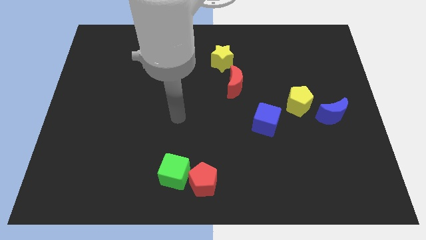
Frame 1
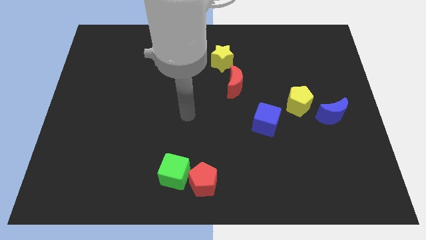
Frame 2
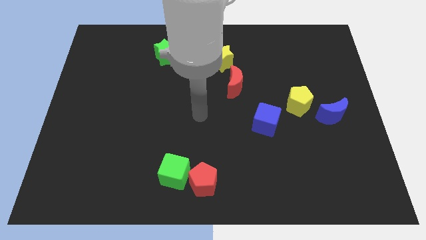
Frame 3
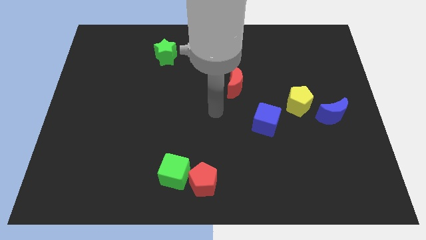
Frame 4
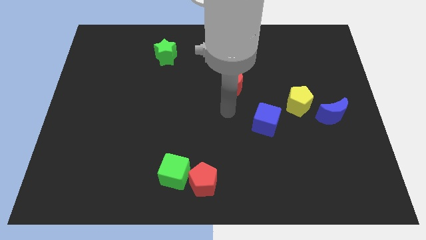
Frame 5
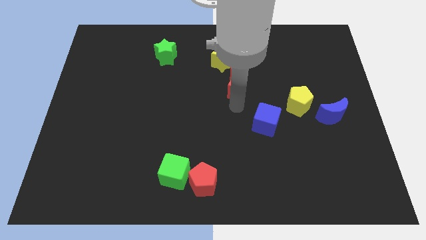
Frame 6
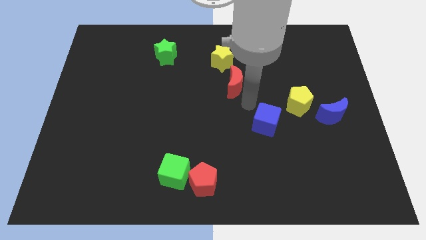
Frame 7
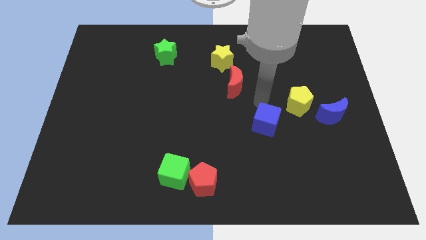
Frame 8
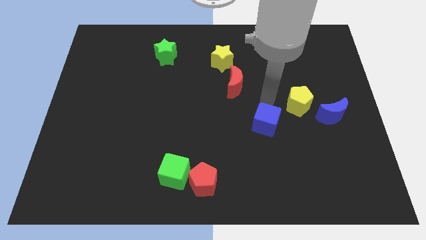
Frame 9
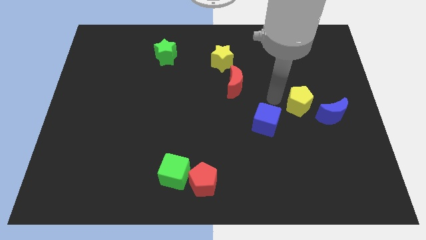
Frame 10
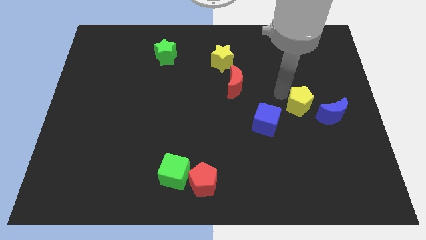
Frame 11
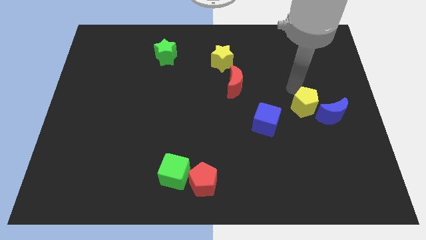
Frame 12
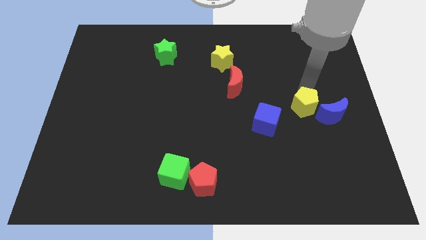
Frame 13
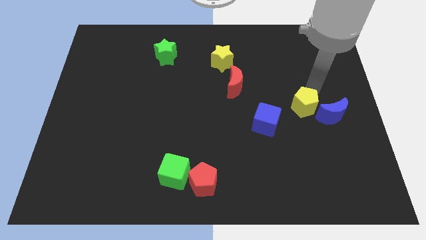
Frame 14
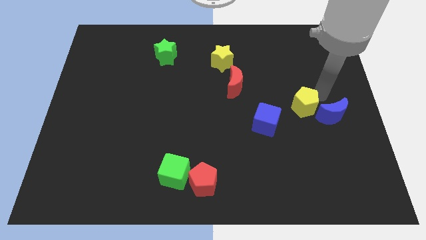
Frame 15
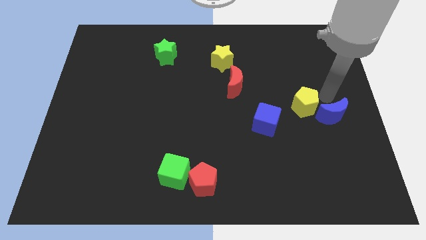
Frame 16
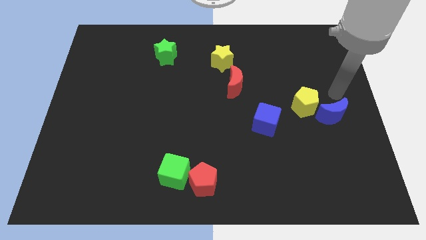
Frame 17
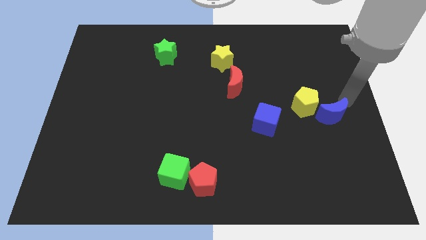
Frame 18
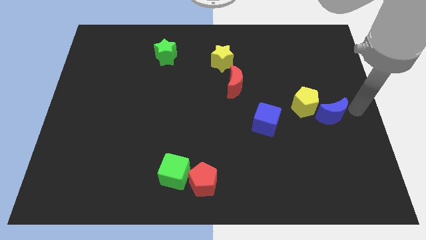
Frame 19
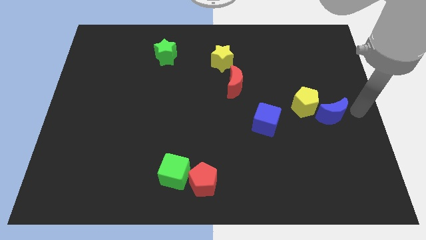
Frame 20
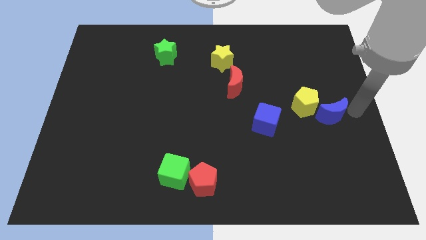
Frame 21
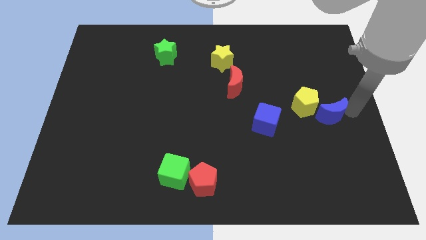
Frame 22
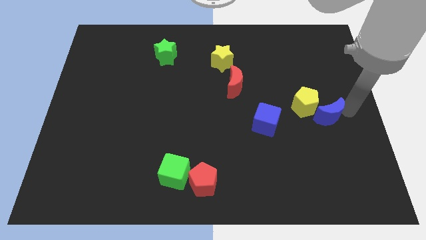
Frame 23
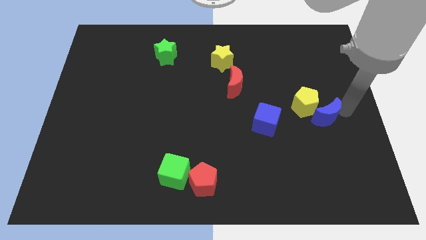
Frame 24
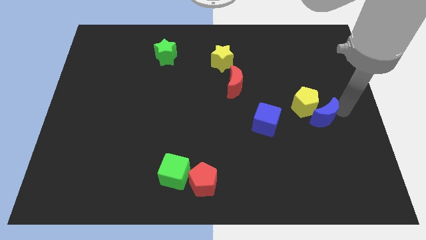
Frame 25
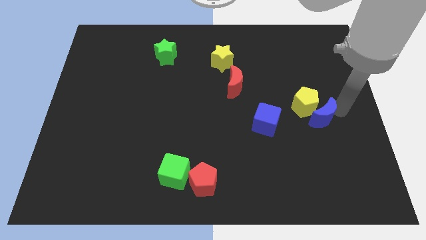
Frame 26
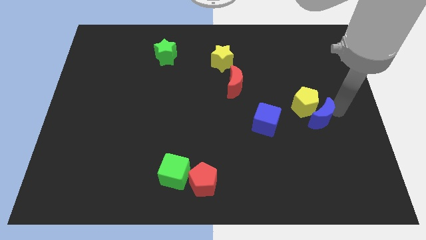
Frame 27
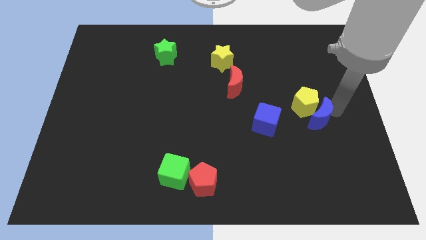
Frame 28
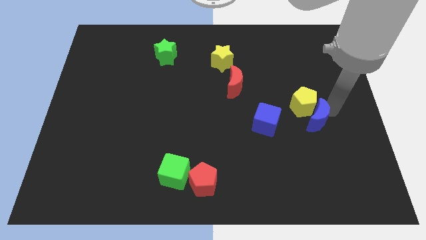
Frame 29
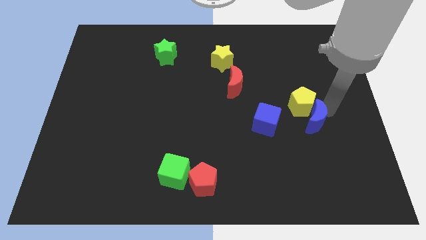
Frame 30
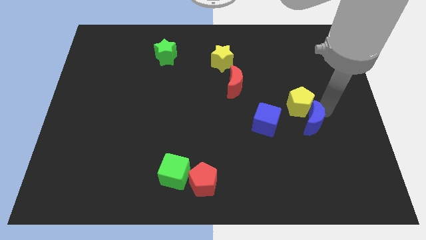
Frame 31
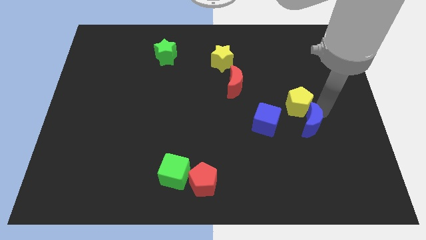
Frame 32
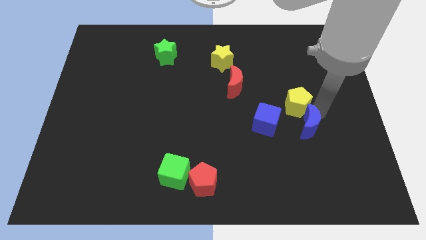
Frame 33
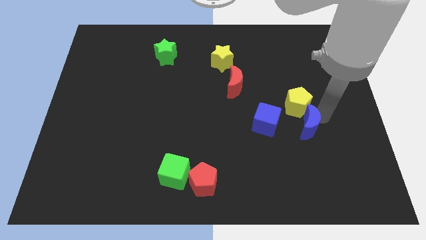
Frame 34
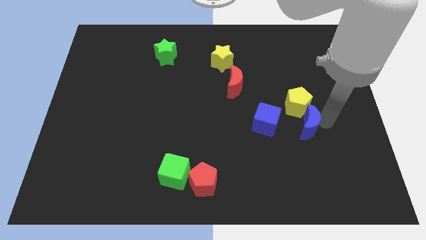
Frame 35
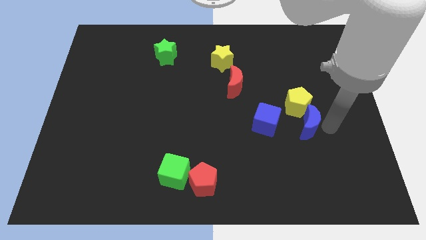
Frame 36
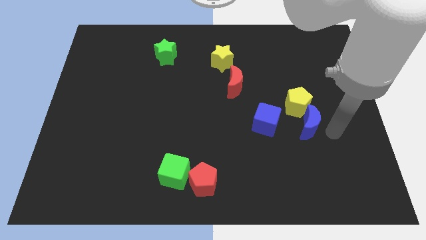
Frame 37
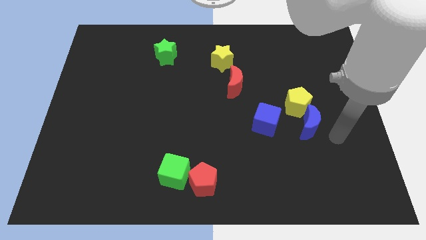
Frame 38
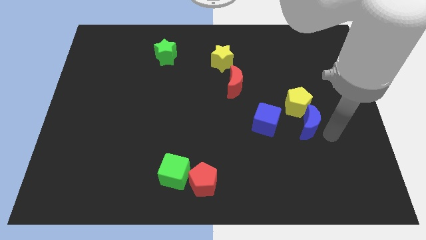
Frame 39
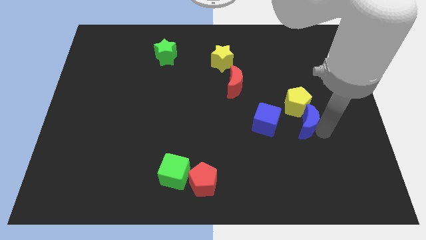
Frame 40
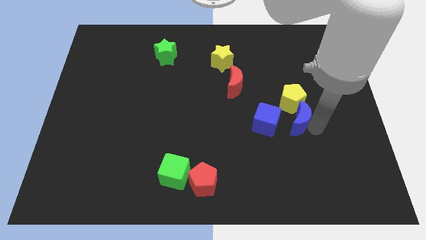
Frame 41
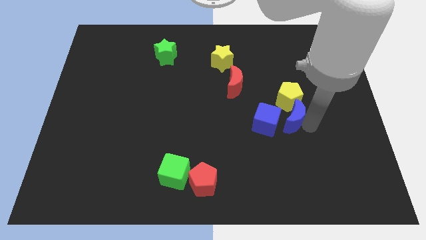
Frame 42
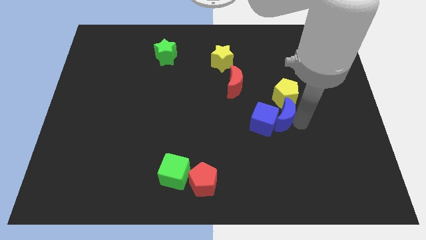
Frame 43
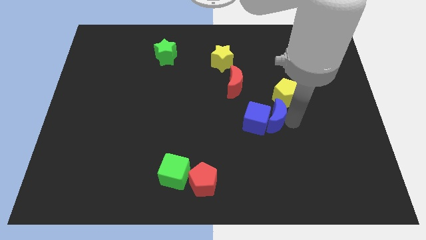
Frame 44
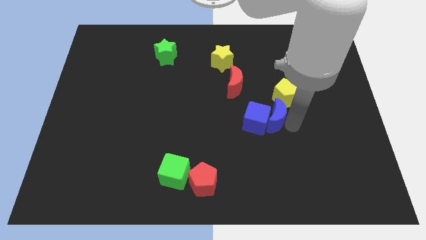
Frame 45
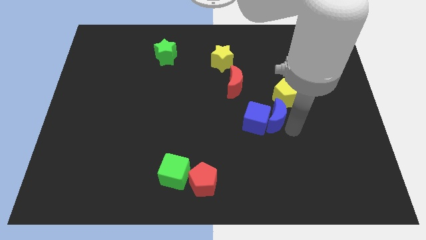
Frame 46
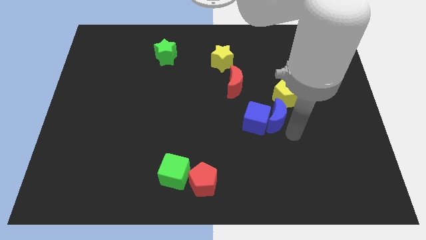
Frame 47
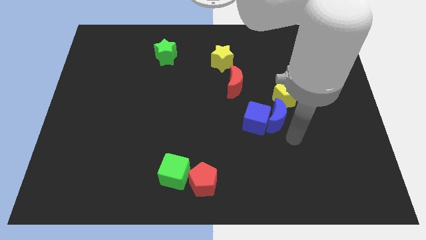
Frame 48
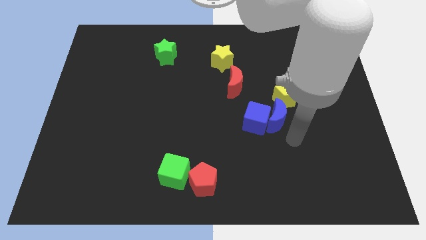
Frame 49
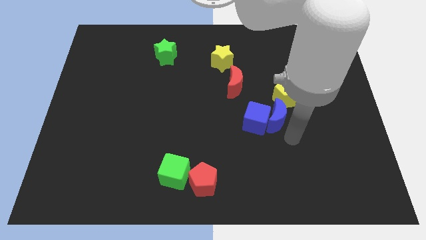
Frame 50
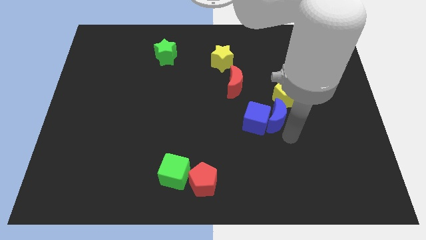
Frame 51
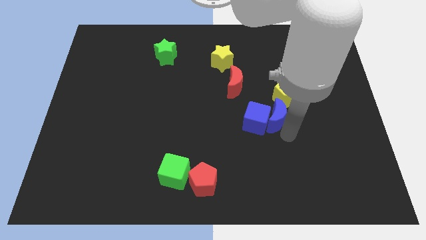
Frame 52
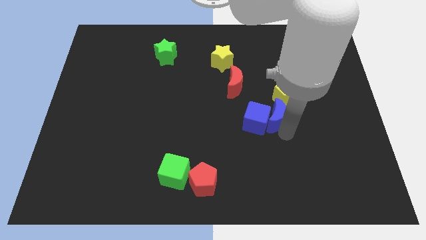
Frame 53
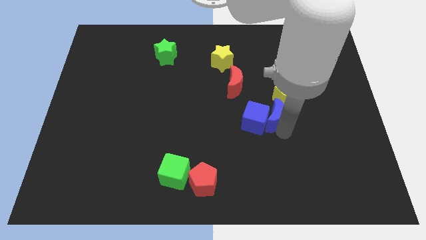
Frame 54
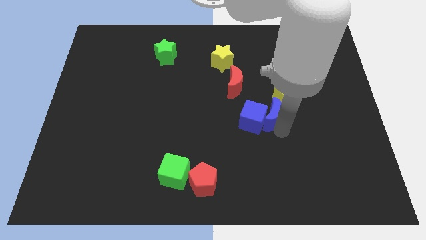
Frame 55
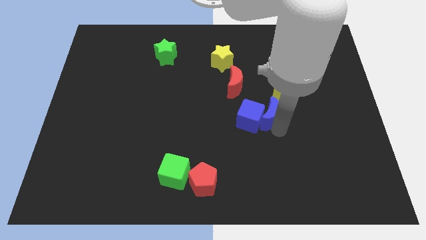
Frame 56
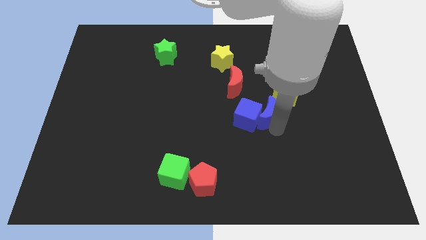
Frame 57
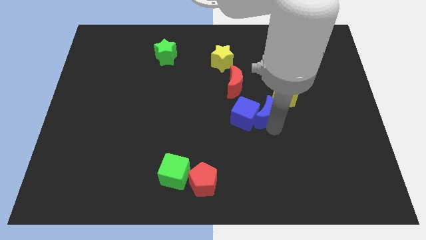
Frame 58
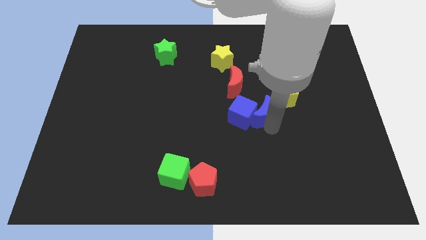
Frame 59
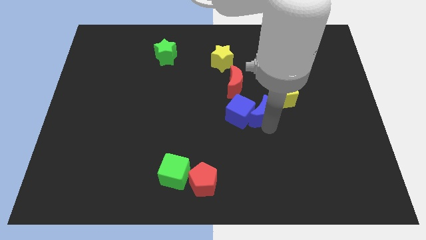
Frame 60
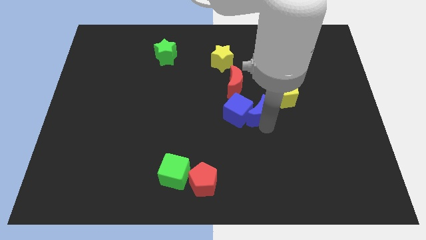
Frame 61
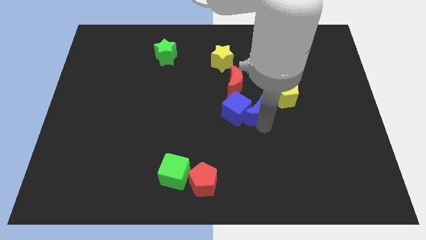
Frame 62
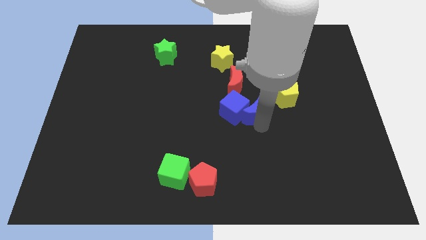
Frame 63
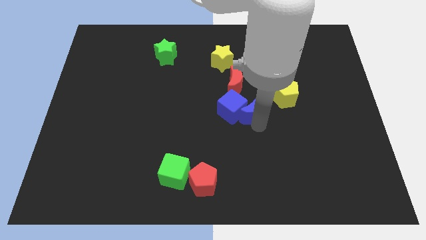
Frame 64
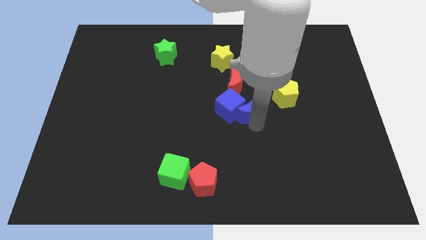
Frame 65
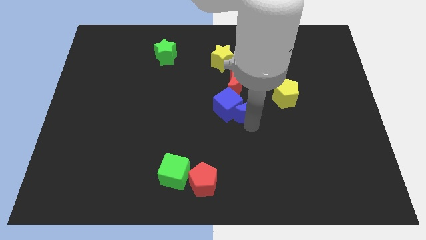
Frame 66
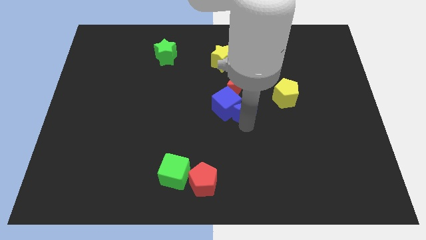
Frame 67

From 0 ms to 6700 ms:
move the blue moon to the left

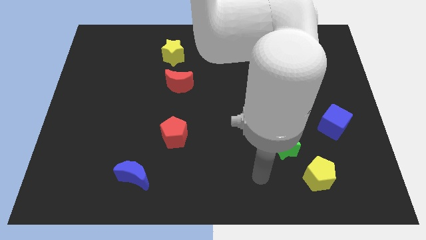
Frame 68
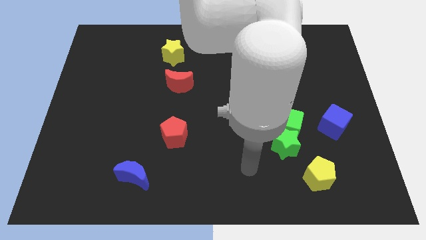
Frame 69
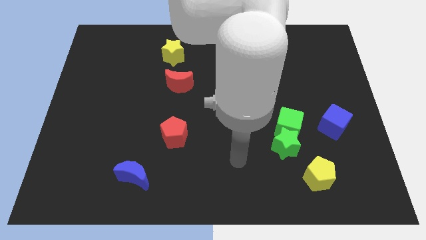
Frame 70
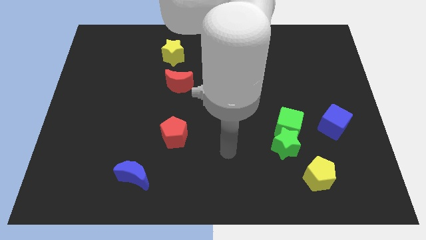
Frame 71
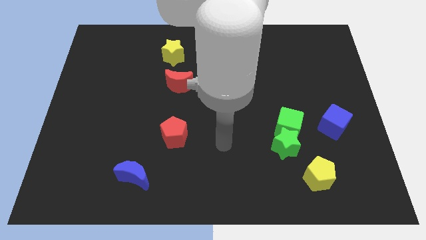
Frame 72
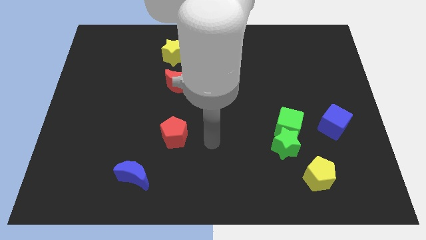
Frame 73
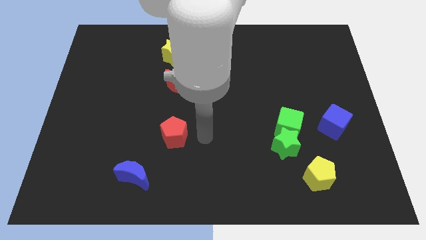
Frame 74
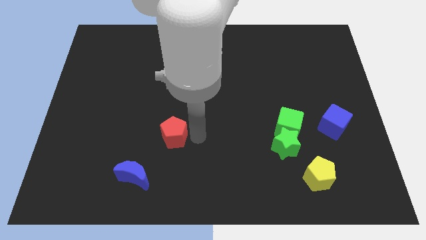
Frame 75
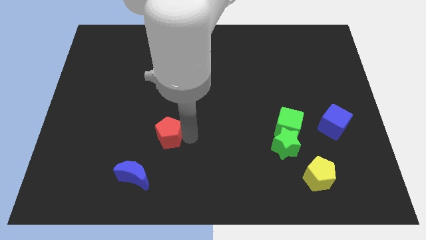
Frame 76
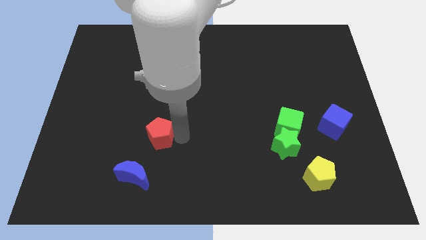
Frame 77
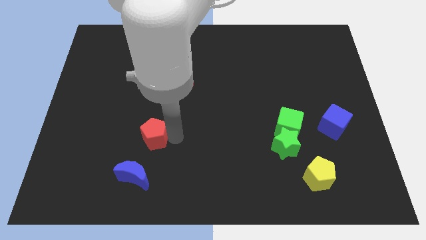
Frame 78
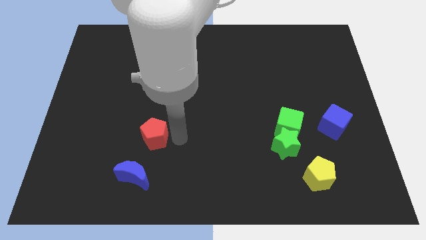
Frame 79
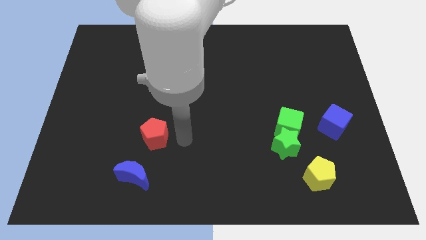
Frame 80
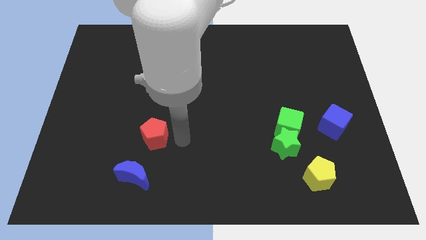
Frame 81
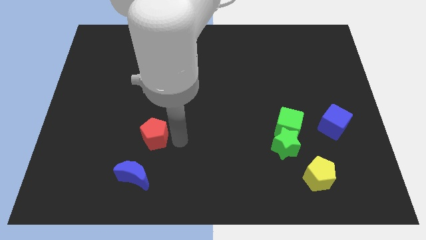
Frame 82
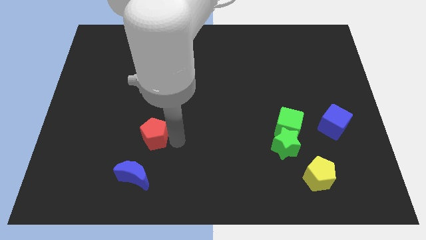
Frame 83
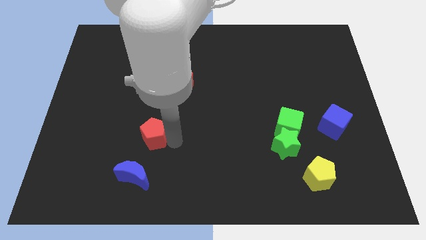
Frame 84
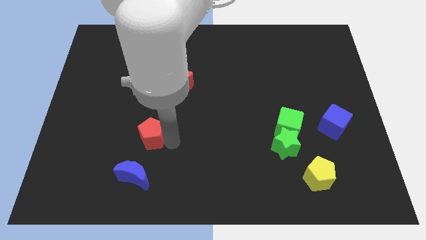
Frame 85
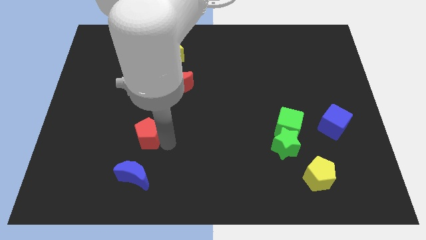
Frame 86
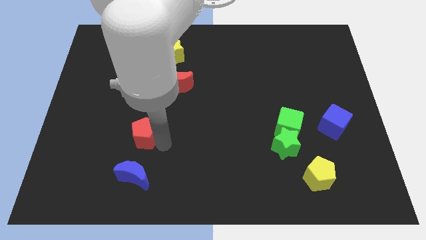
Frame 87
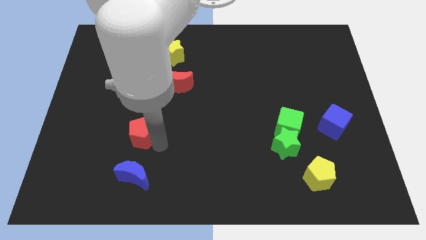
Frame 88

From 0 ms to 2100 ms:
slide the red pentagon a little left
